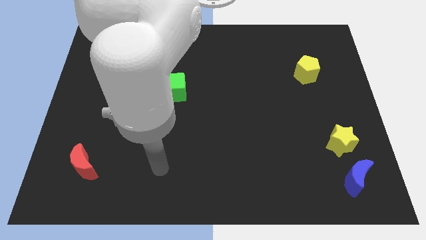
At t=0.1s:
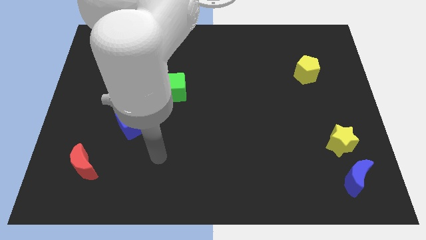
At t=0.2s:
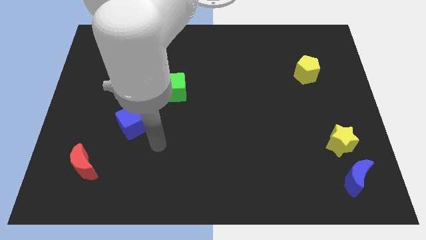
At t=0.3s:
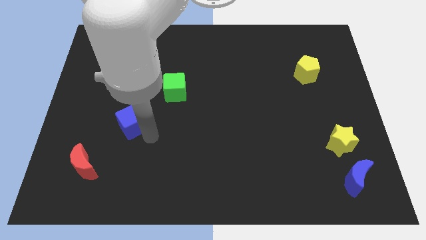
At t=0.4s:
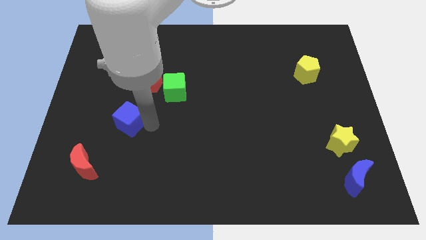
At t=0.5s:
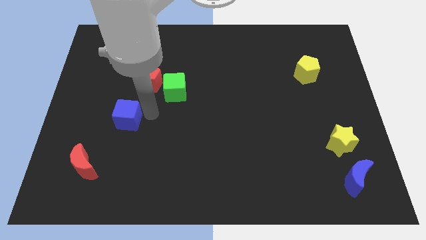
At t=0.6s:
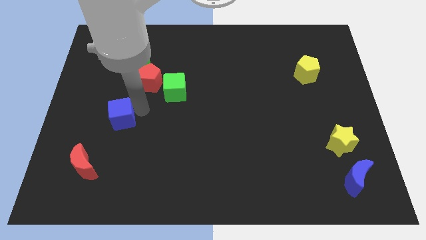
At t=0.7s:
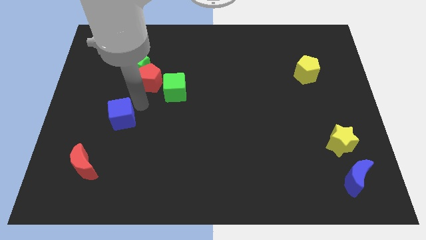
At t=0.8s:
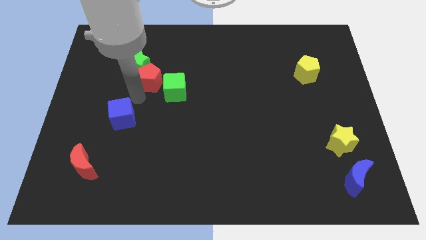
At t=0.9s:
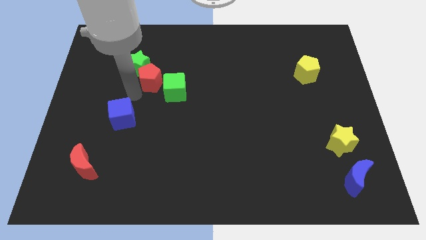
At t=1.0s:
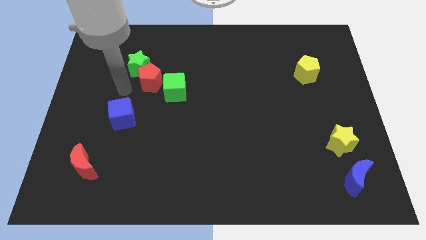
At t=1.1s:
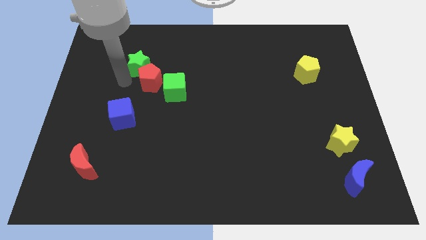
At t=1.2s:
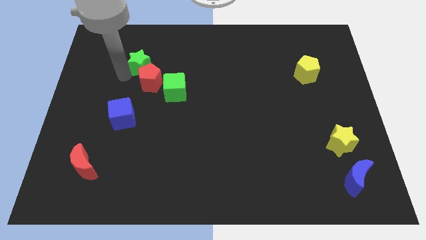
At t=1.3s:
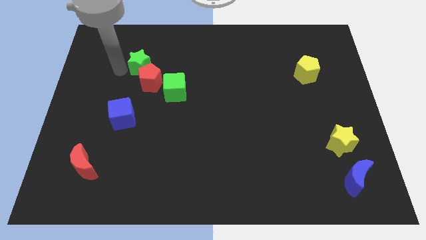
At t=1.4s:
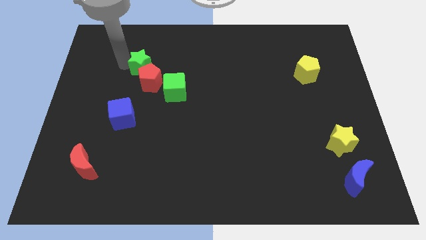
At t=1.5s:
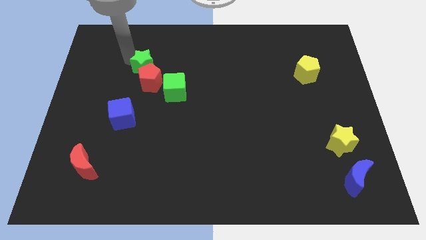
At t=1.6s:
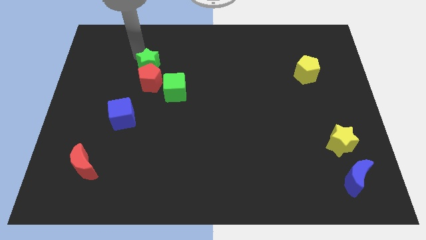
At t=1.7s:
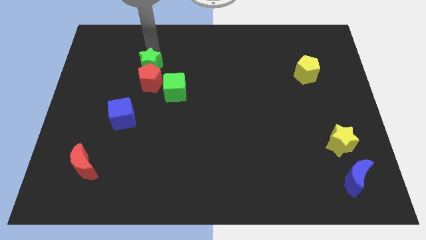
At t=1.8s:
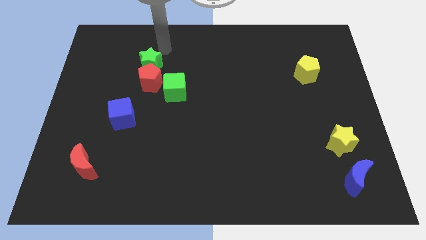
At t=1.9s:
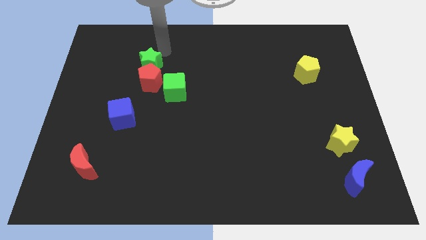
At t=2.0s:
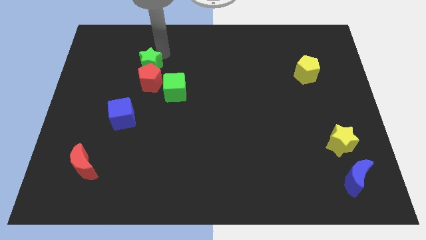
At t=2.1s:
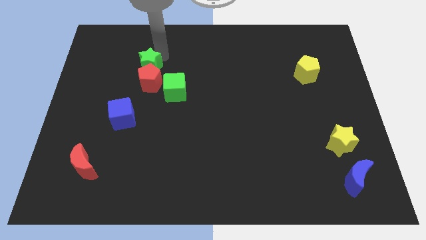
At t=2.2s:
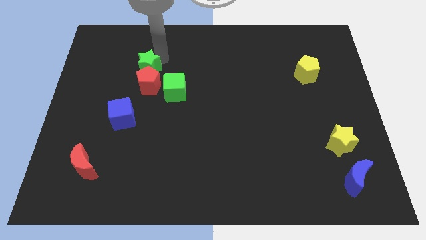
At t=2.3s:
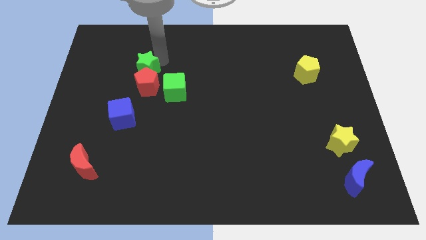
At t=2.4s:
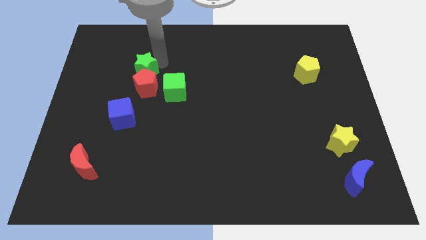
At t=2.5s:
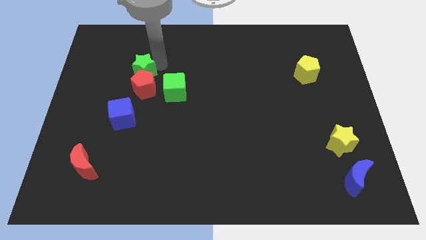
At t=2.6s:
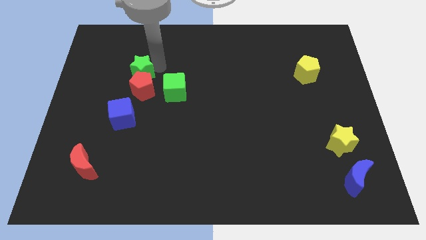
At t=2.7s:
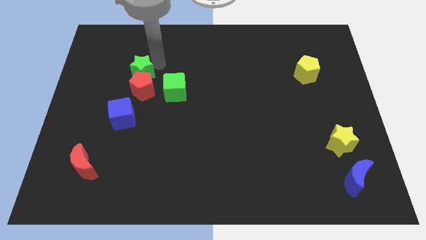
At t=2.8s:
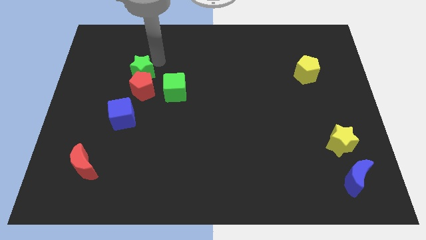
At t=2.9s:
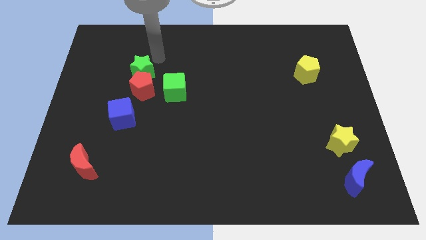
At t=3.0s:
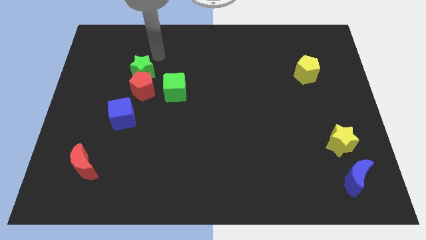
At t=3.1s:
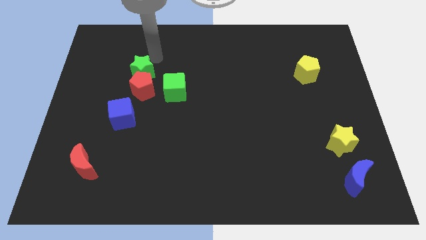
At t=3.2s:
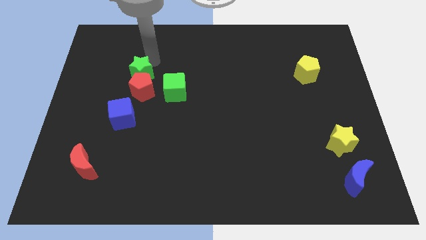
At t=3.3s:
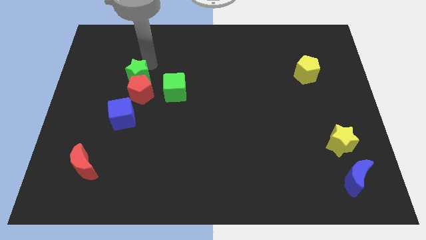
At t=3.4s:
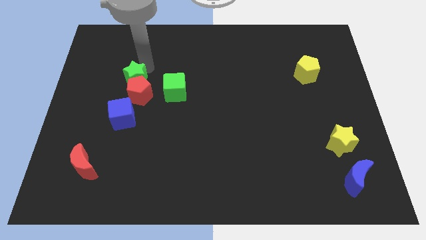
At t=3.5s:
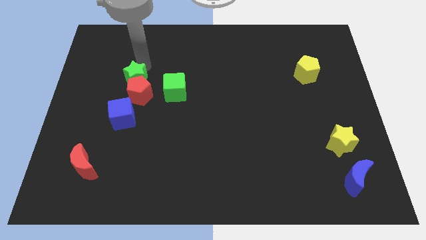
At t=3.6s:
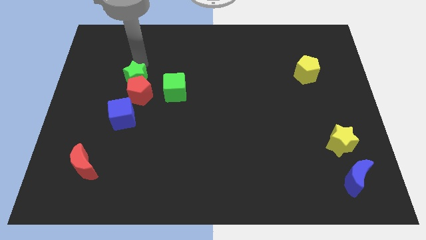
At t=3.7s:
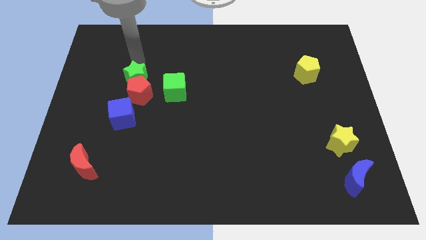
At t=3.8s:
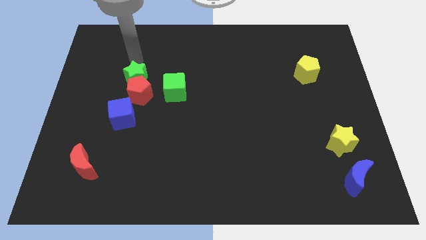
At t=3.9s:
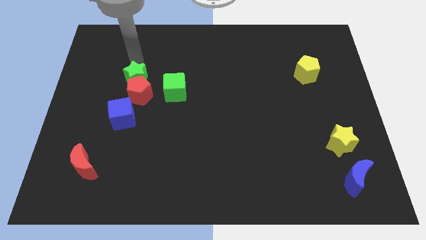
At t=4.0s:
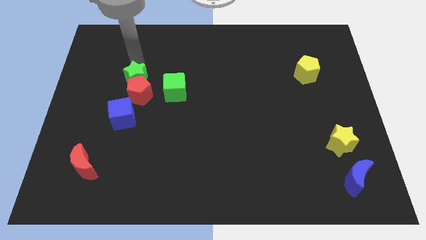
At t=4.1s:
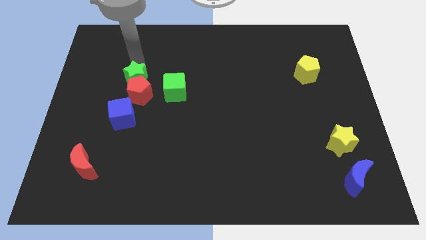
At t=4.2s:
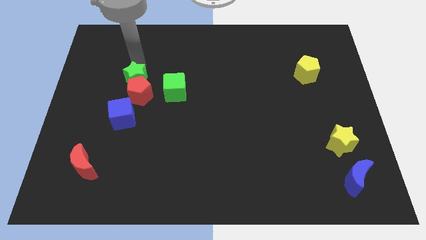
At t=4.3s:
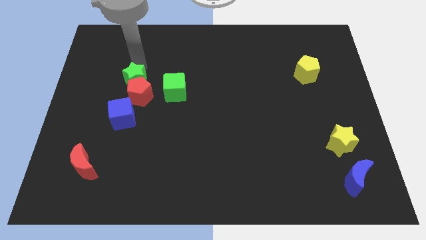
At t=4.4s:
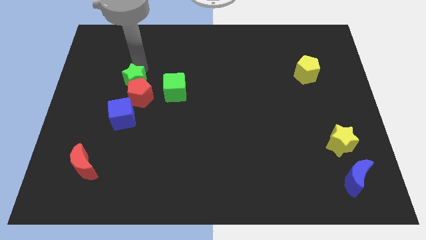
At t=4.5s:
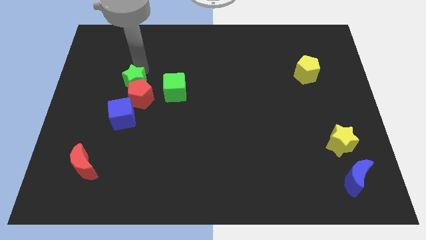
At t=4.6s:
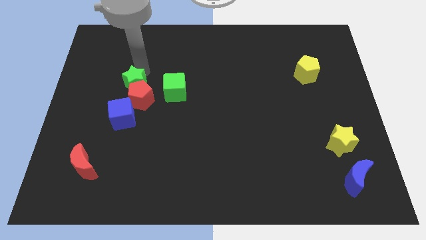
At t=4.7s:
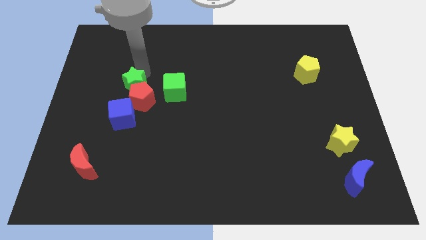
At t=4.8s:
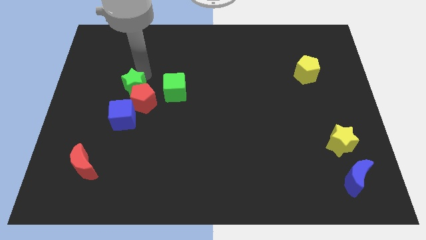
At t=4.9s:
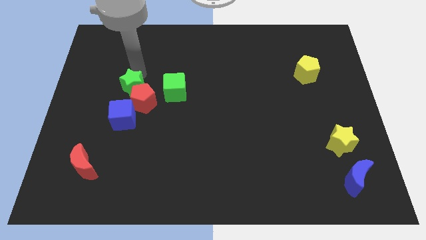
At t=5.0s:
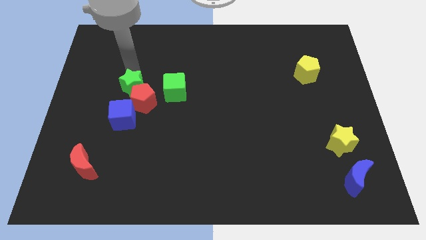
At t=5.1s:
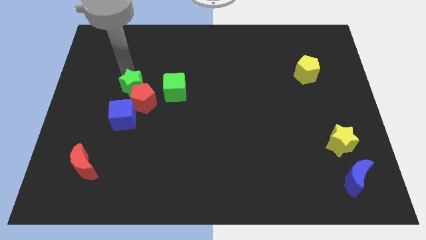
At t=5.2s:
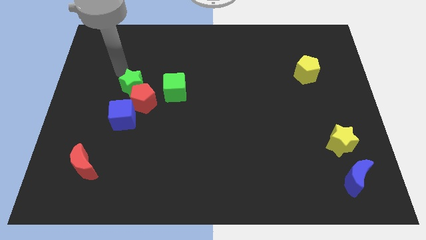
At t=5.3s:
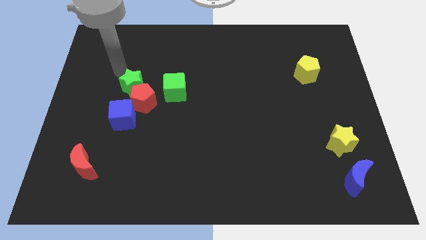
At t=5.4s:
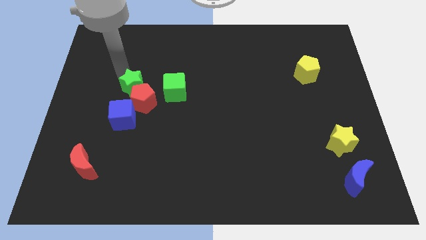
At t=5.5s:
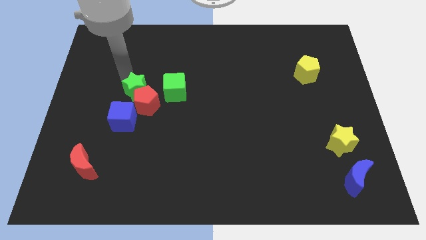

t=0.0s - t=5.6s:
push the green star to the top right of the blue cube

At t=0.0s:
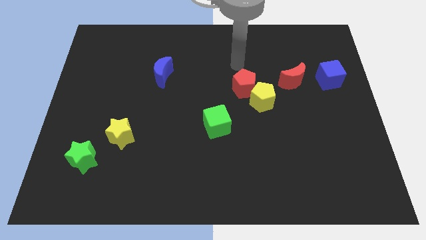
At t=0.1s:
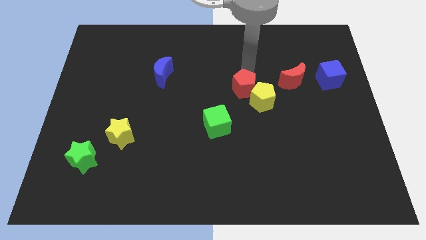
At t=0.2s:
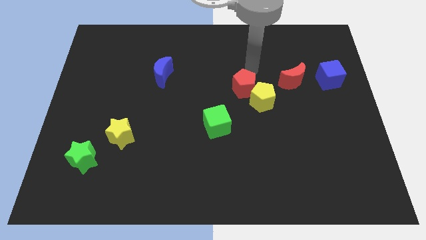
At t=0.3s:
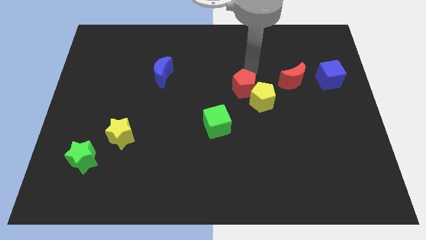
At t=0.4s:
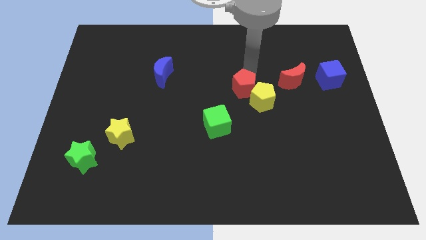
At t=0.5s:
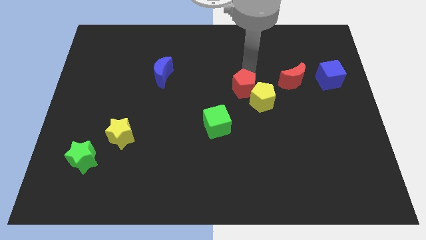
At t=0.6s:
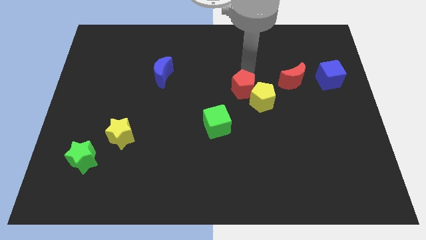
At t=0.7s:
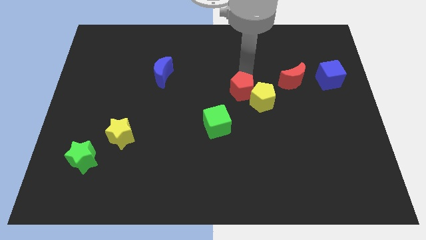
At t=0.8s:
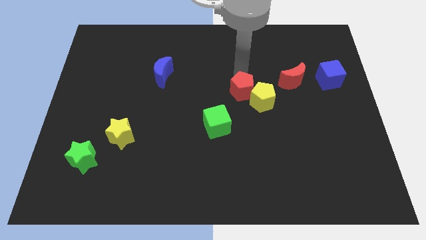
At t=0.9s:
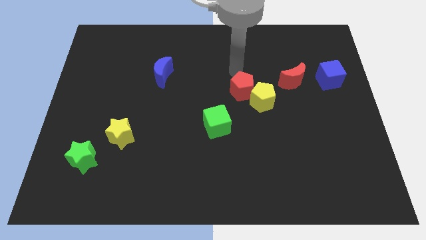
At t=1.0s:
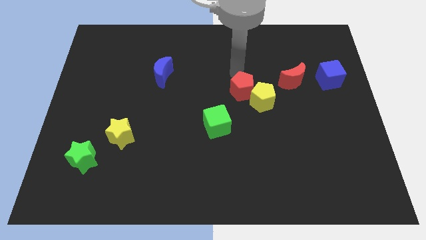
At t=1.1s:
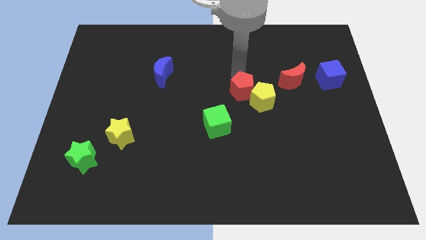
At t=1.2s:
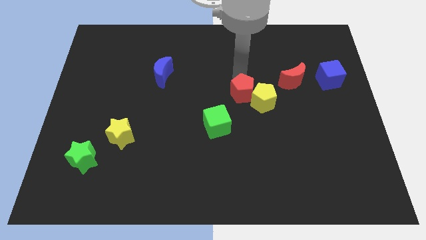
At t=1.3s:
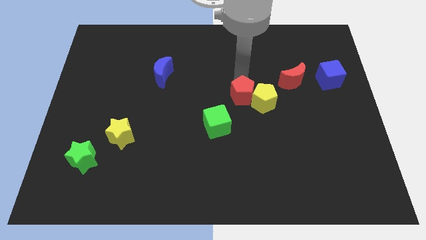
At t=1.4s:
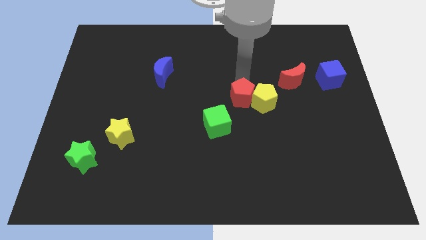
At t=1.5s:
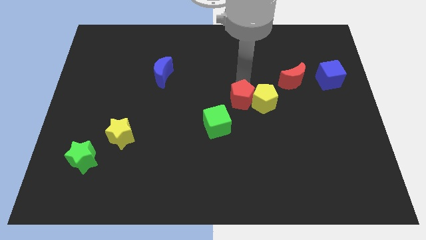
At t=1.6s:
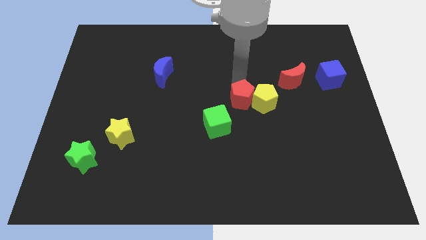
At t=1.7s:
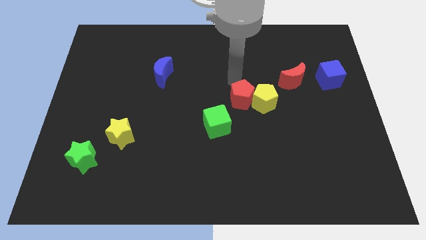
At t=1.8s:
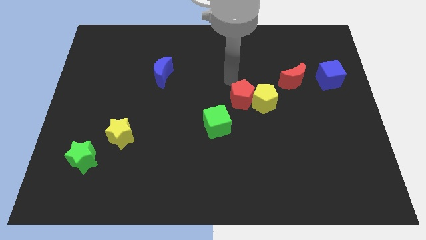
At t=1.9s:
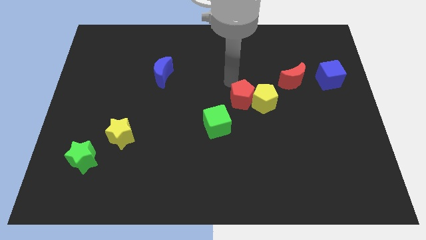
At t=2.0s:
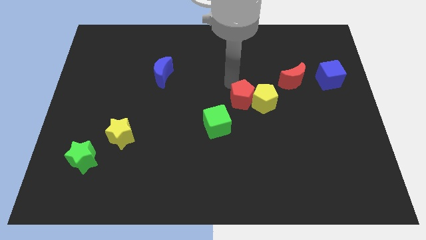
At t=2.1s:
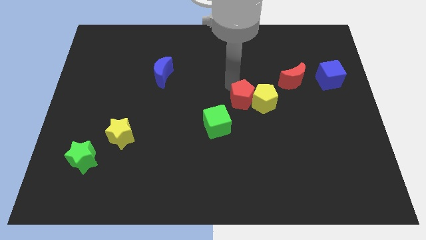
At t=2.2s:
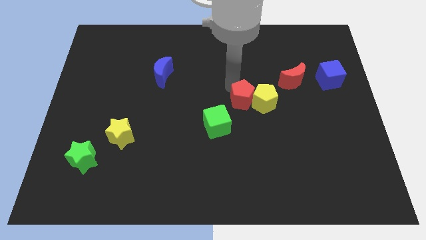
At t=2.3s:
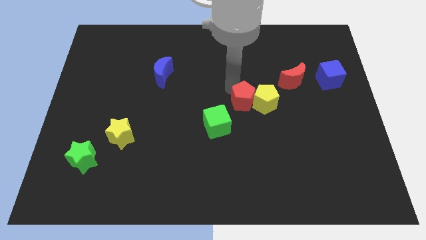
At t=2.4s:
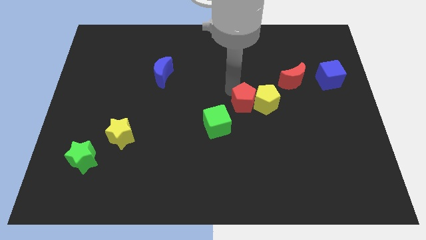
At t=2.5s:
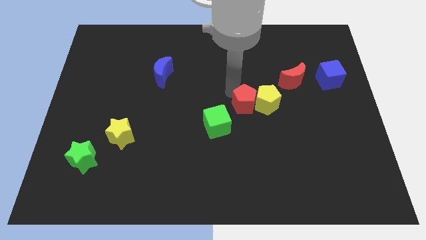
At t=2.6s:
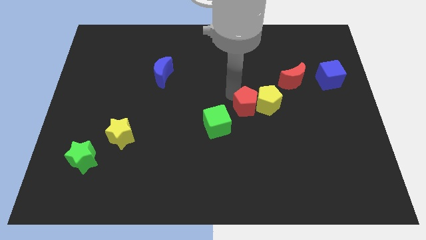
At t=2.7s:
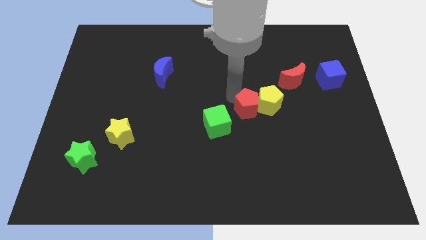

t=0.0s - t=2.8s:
push the red pentagon to the right of the green cube
